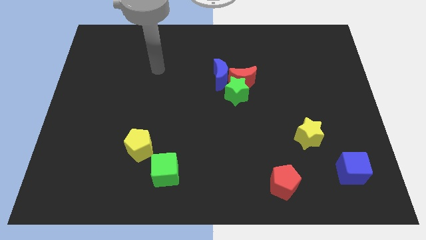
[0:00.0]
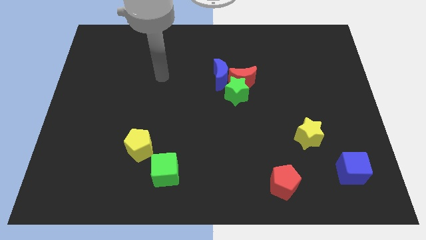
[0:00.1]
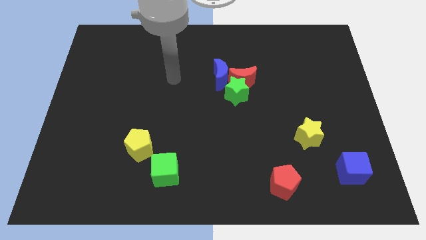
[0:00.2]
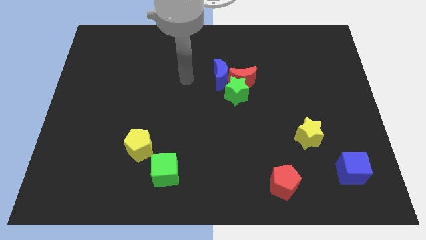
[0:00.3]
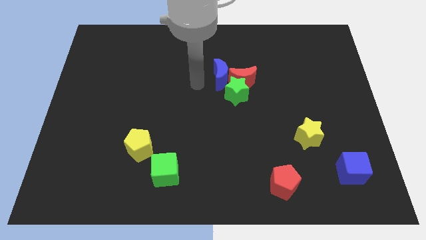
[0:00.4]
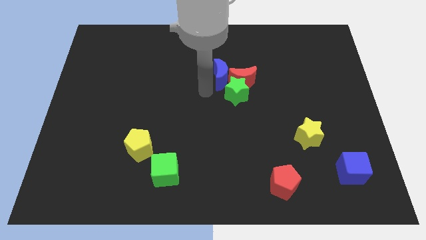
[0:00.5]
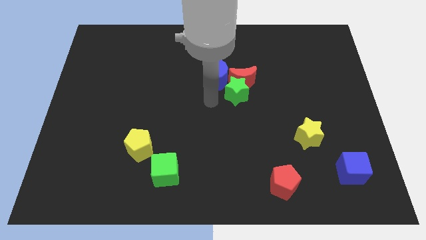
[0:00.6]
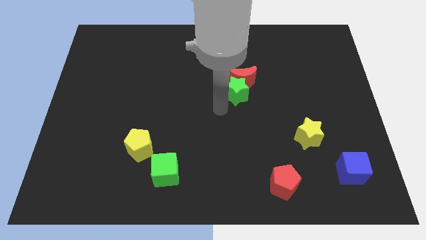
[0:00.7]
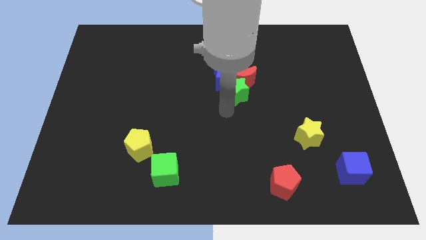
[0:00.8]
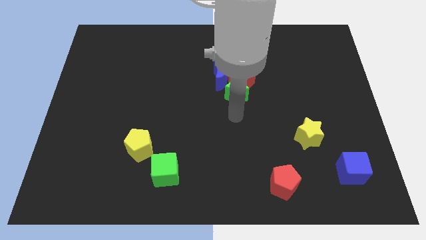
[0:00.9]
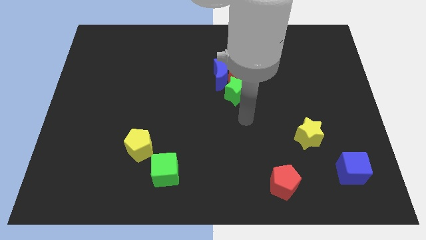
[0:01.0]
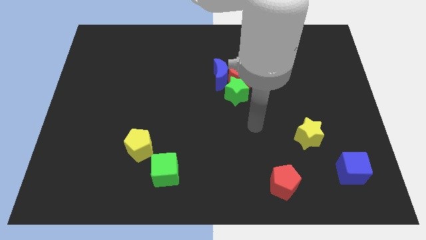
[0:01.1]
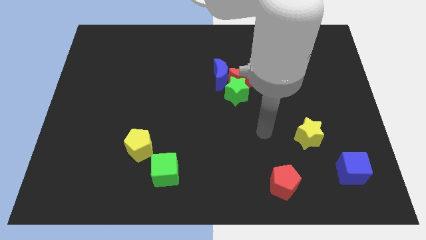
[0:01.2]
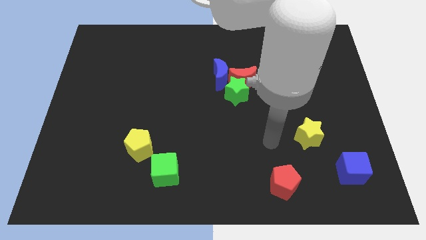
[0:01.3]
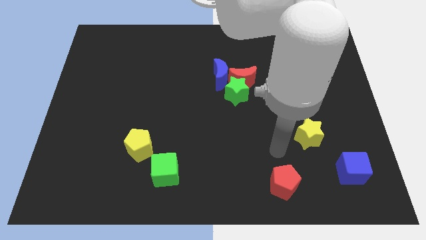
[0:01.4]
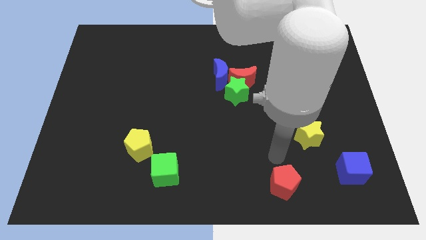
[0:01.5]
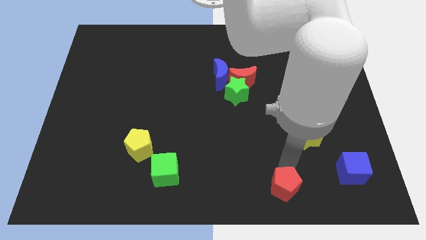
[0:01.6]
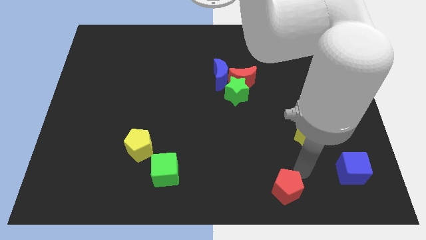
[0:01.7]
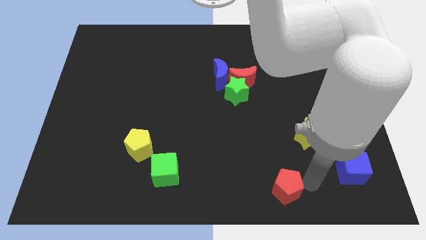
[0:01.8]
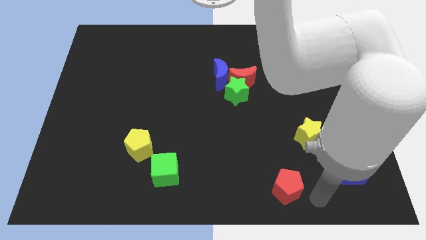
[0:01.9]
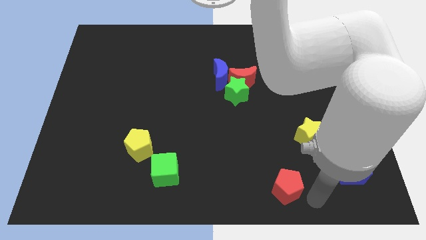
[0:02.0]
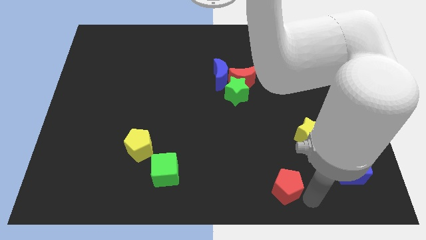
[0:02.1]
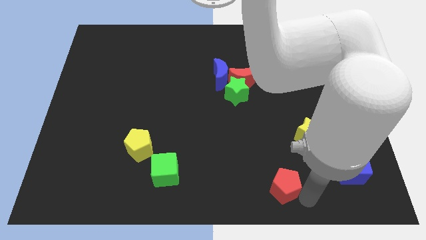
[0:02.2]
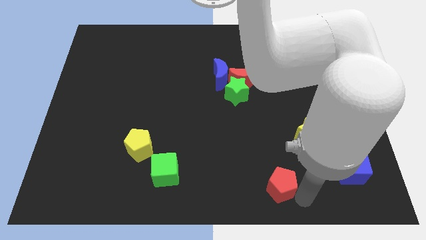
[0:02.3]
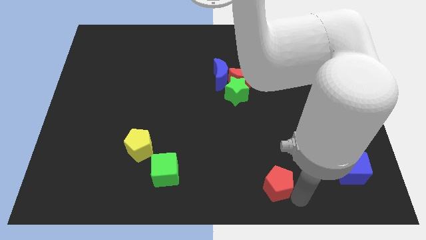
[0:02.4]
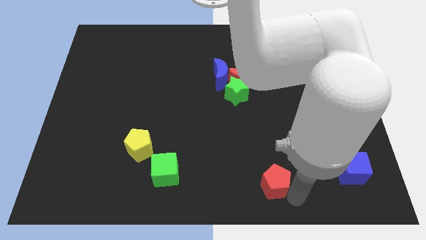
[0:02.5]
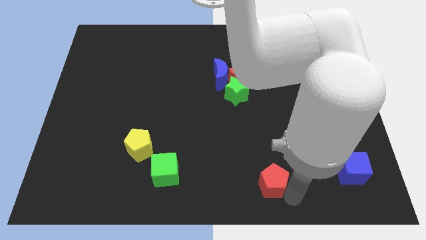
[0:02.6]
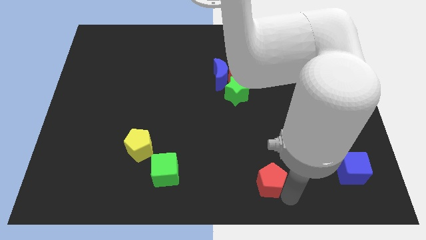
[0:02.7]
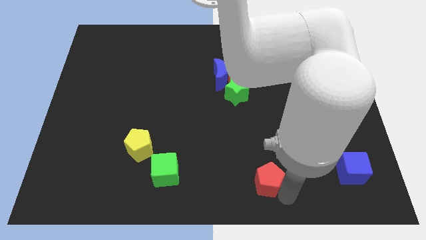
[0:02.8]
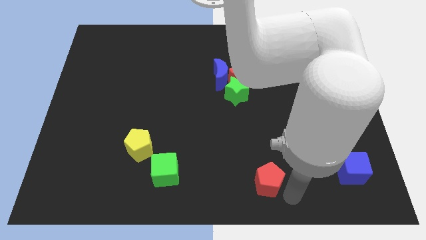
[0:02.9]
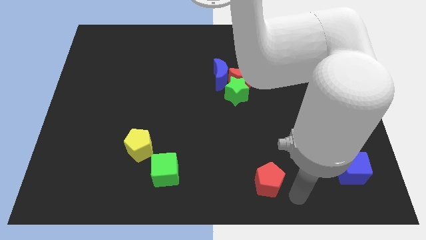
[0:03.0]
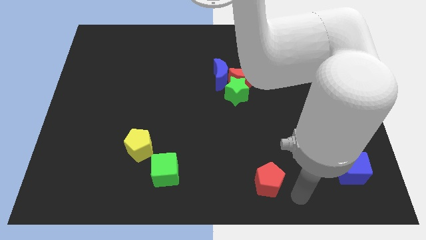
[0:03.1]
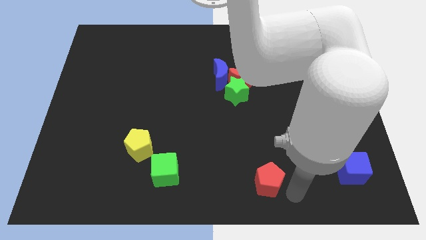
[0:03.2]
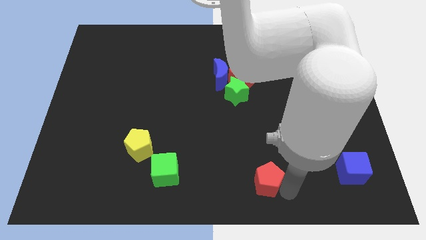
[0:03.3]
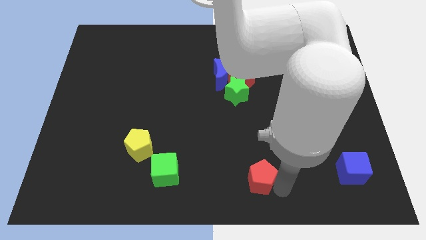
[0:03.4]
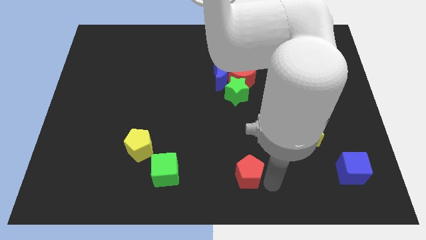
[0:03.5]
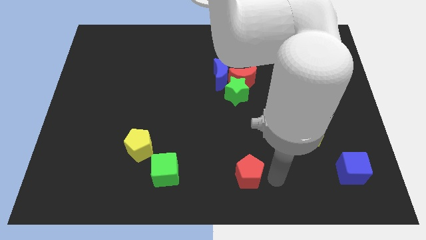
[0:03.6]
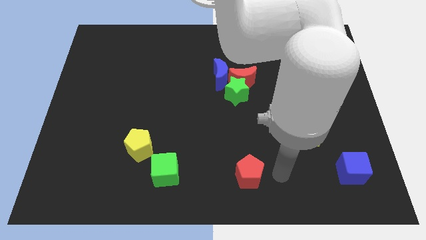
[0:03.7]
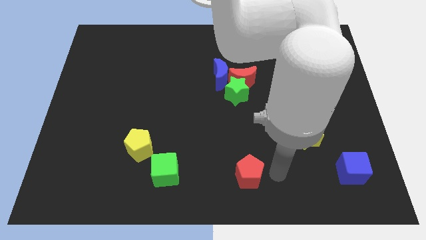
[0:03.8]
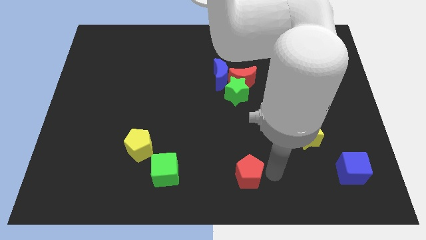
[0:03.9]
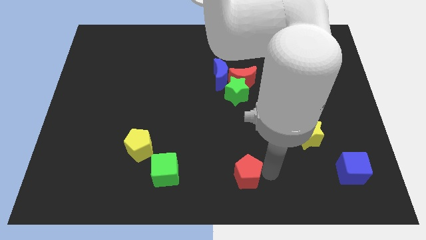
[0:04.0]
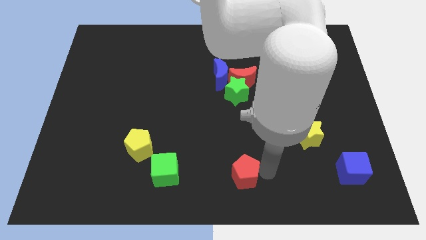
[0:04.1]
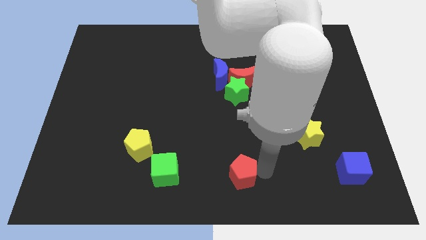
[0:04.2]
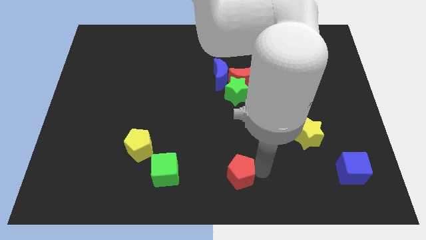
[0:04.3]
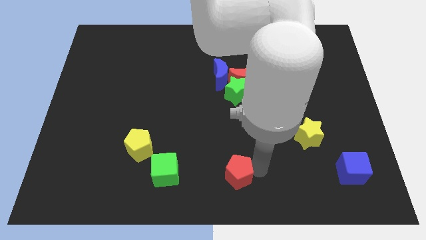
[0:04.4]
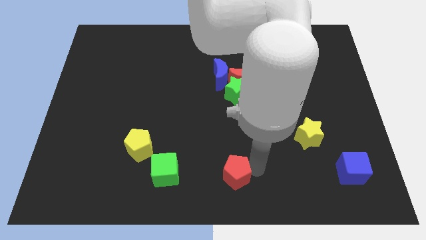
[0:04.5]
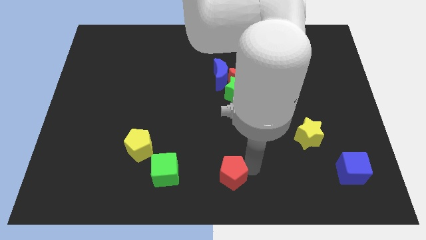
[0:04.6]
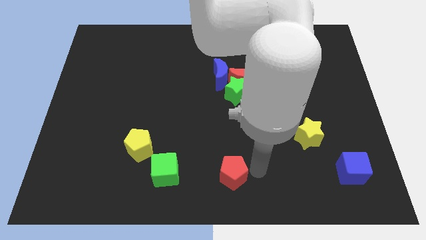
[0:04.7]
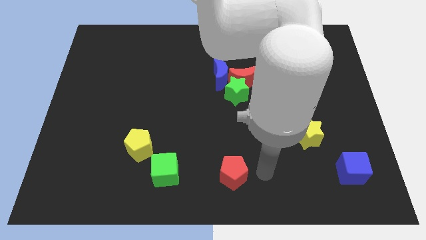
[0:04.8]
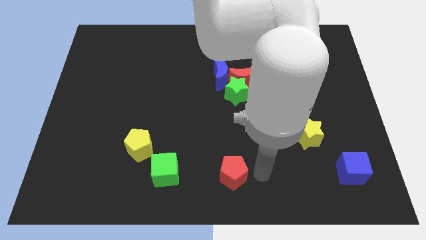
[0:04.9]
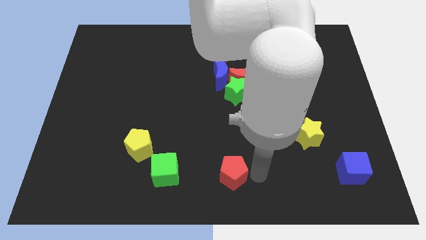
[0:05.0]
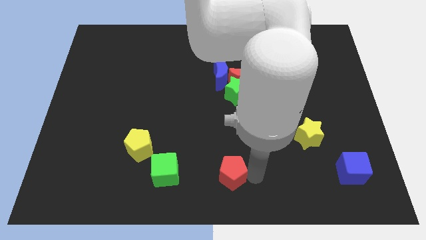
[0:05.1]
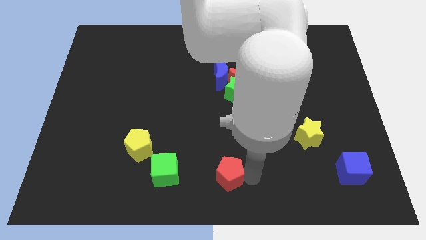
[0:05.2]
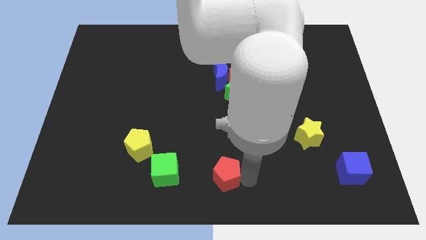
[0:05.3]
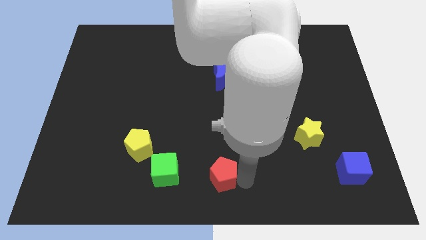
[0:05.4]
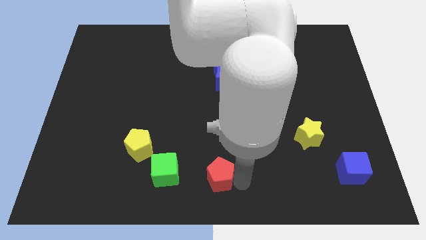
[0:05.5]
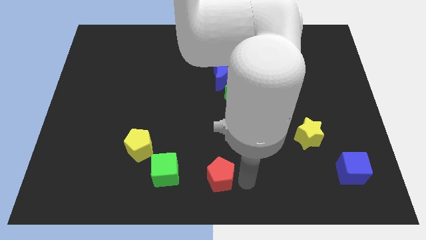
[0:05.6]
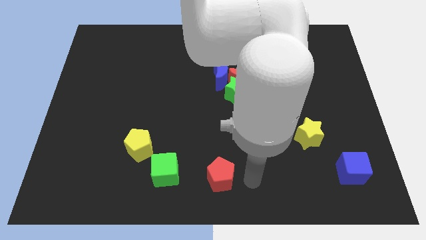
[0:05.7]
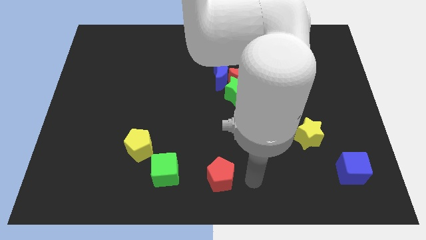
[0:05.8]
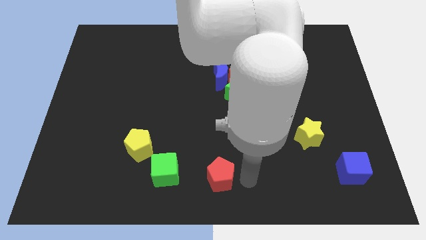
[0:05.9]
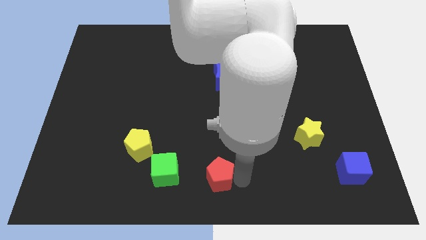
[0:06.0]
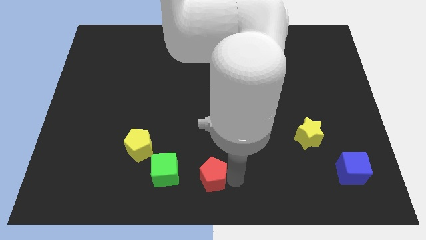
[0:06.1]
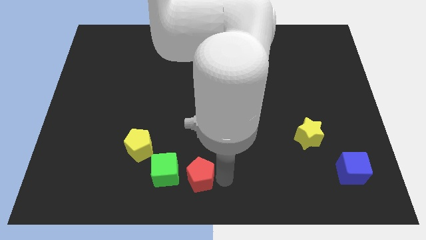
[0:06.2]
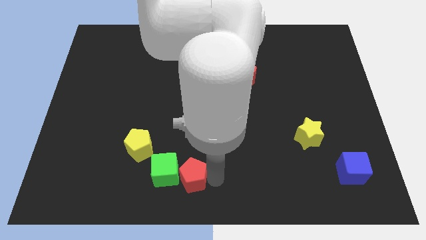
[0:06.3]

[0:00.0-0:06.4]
slide the red pentagon close to the green cube

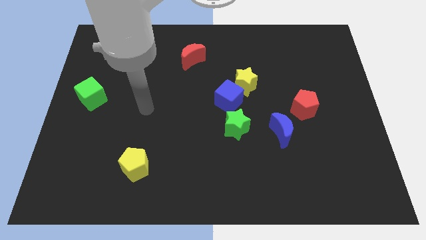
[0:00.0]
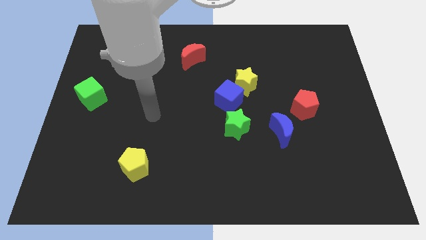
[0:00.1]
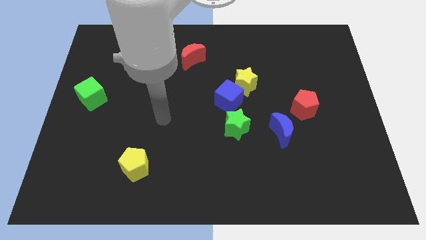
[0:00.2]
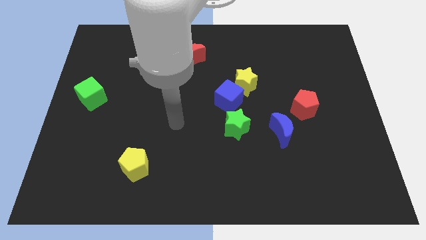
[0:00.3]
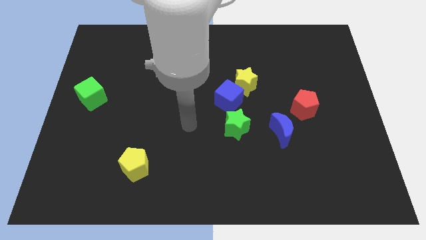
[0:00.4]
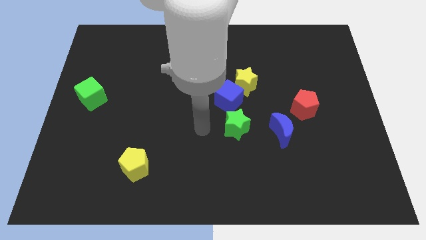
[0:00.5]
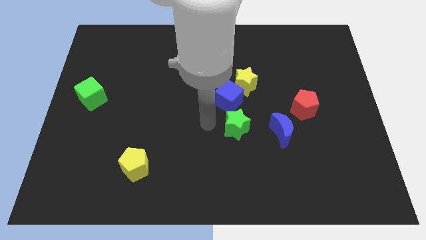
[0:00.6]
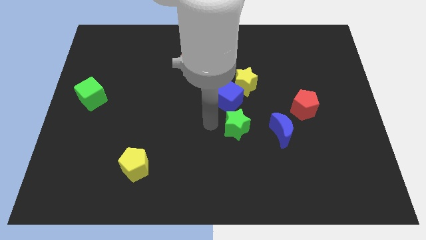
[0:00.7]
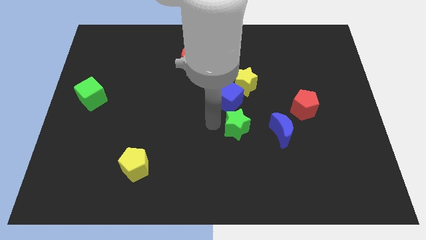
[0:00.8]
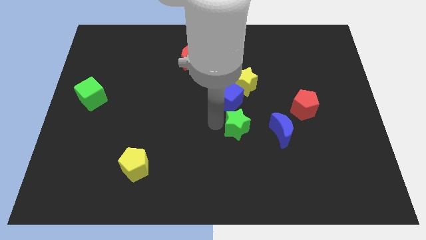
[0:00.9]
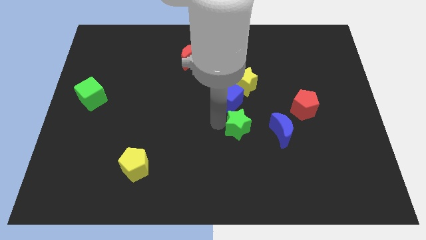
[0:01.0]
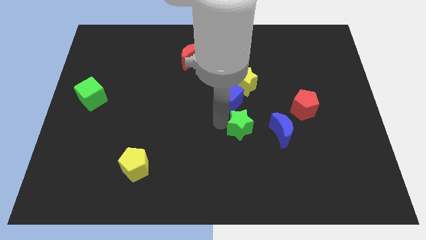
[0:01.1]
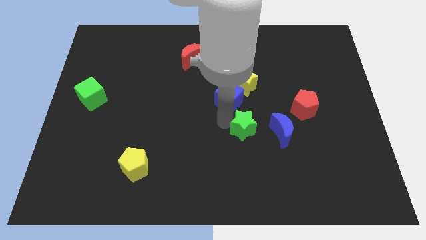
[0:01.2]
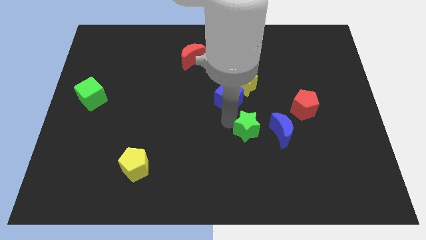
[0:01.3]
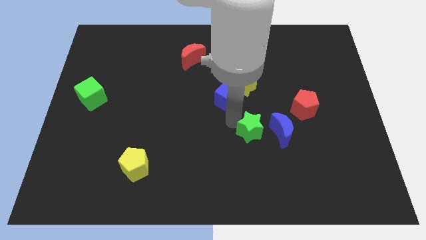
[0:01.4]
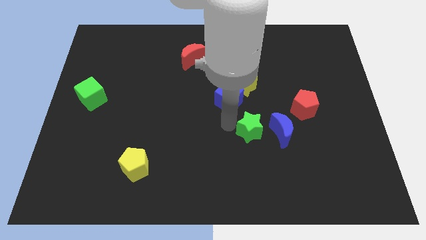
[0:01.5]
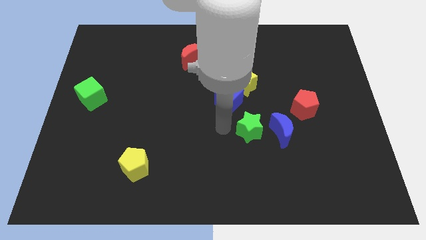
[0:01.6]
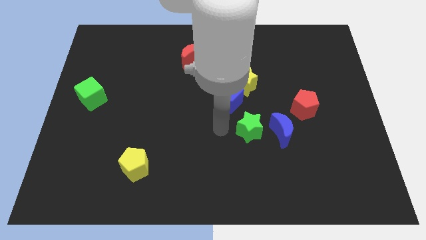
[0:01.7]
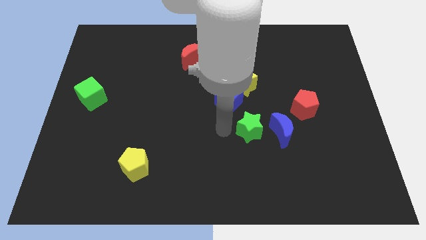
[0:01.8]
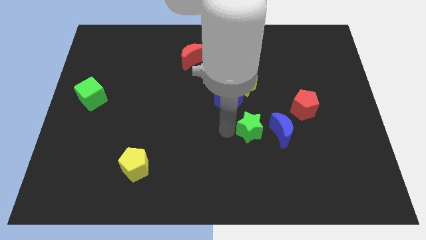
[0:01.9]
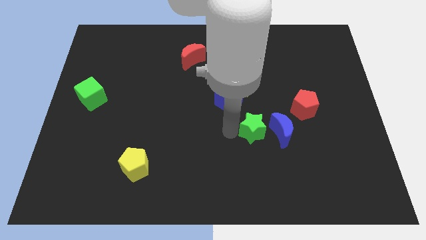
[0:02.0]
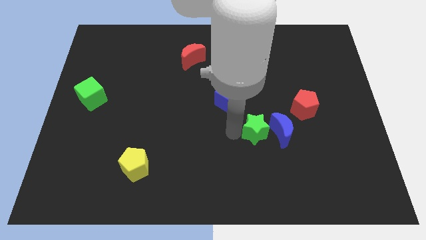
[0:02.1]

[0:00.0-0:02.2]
put the green star close to the blue moon
